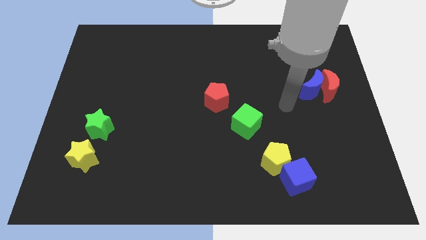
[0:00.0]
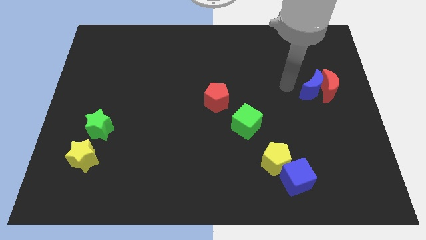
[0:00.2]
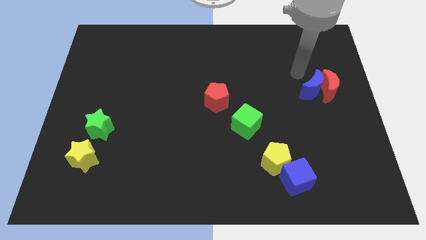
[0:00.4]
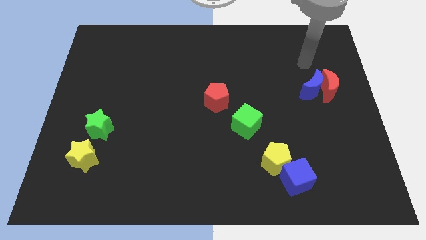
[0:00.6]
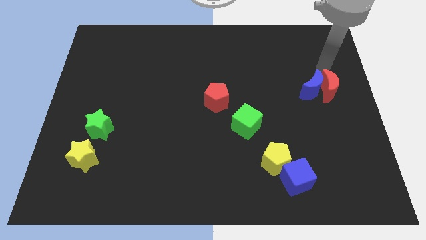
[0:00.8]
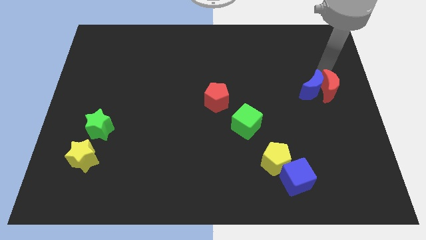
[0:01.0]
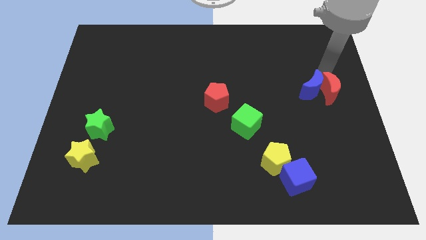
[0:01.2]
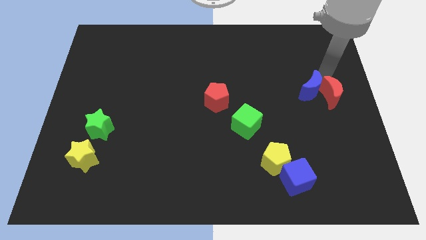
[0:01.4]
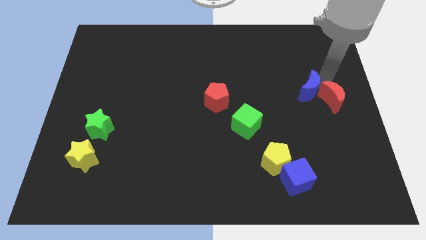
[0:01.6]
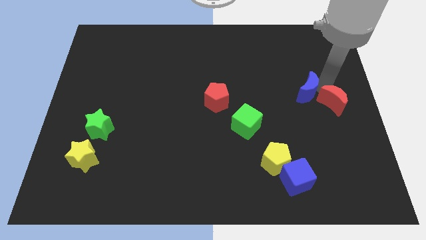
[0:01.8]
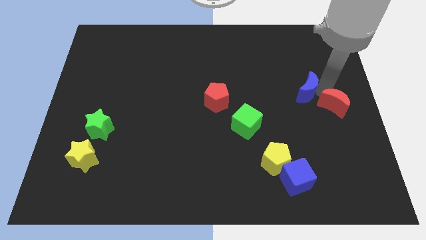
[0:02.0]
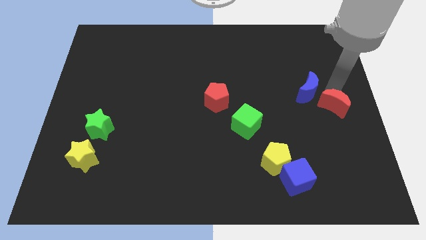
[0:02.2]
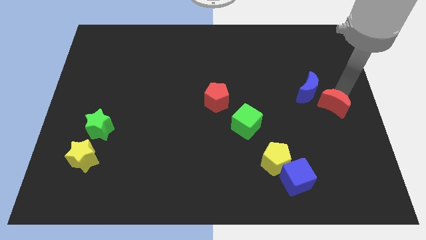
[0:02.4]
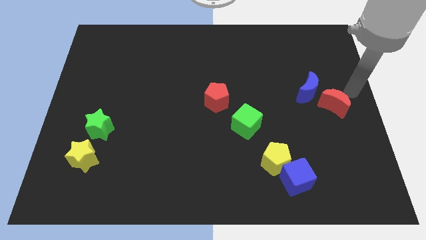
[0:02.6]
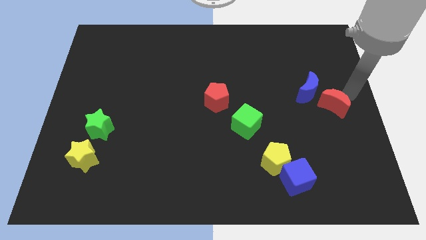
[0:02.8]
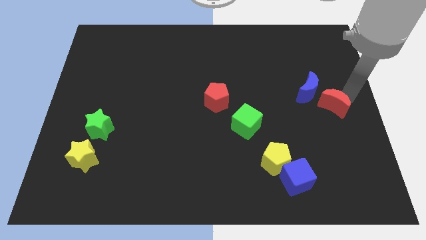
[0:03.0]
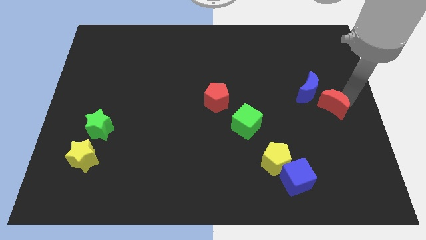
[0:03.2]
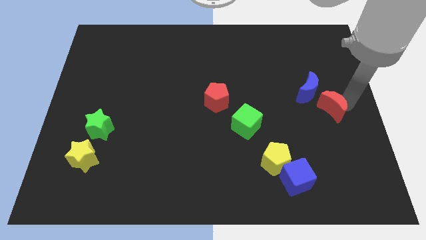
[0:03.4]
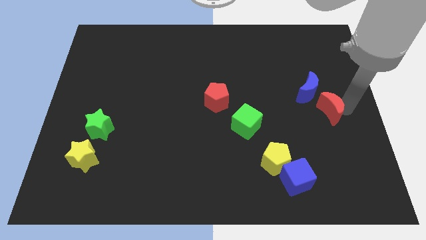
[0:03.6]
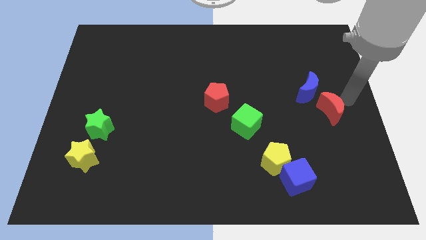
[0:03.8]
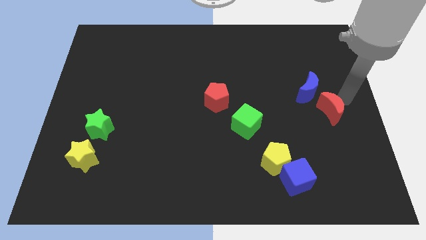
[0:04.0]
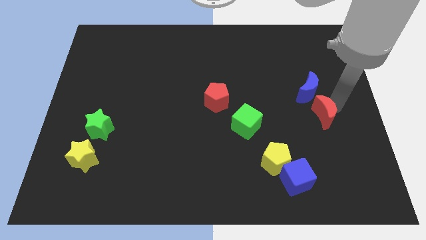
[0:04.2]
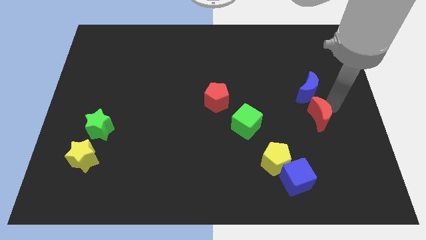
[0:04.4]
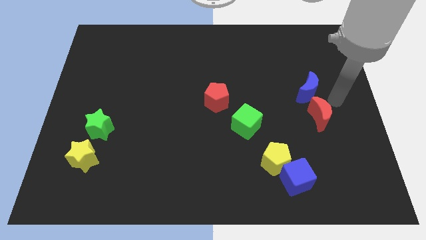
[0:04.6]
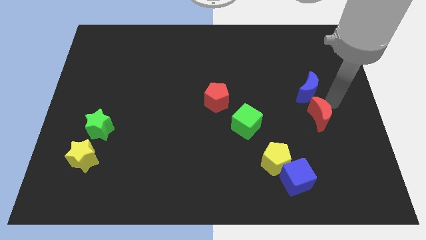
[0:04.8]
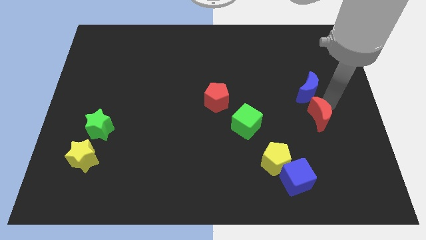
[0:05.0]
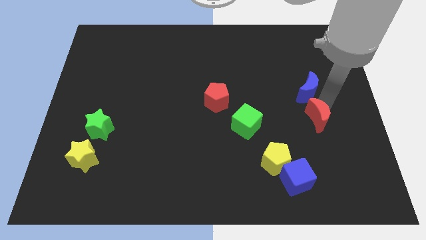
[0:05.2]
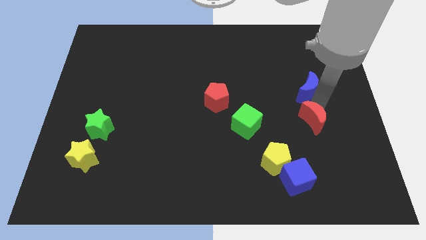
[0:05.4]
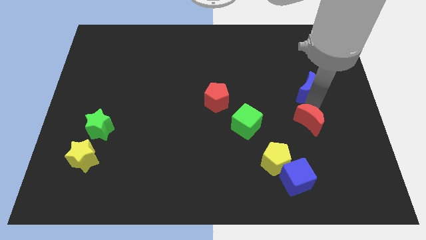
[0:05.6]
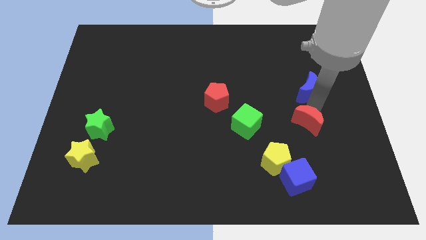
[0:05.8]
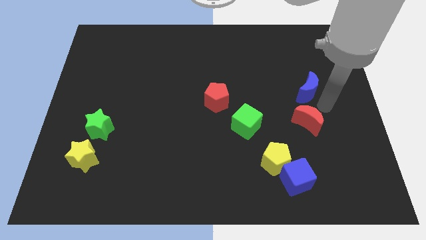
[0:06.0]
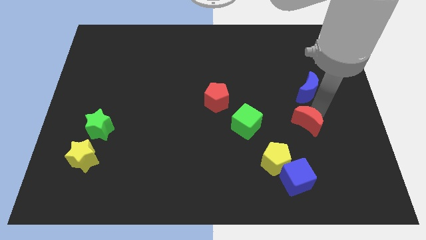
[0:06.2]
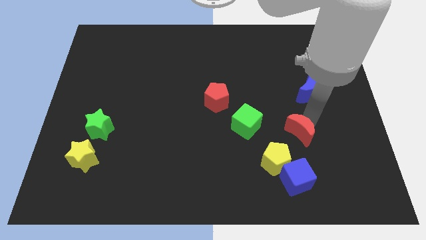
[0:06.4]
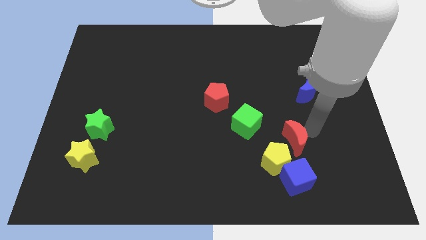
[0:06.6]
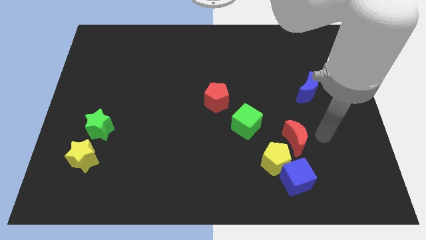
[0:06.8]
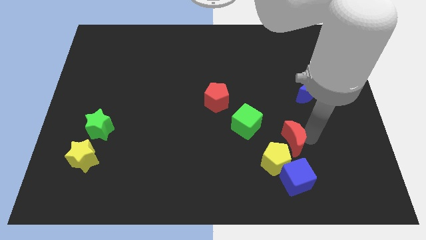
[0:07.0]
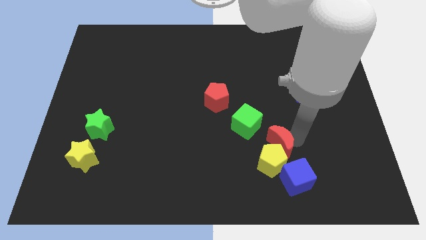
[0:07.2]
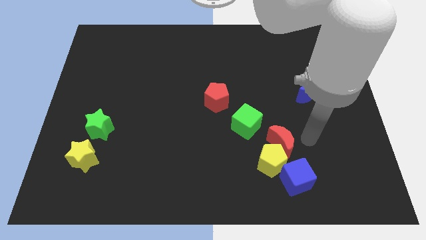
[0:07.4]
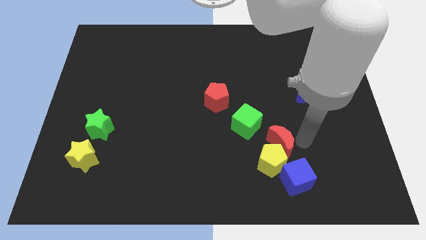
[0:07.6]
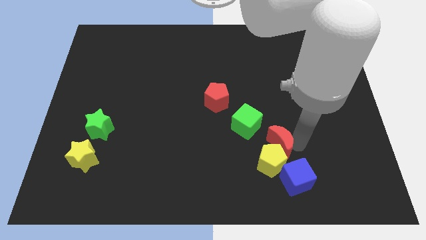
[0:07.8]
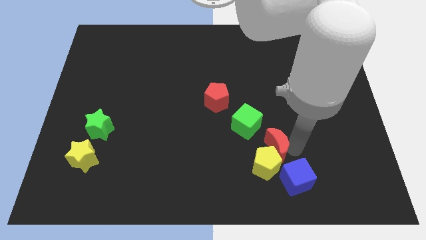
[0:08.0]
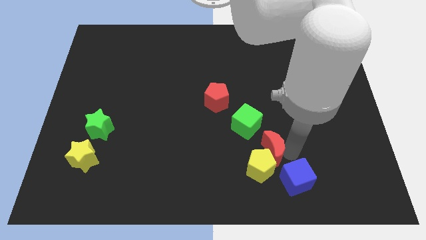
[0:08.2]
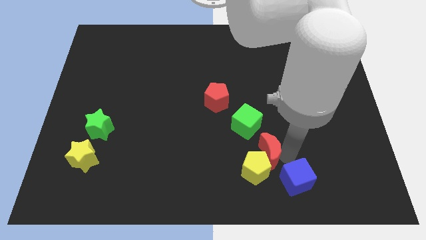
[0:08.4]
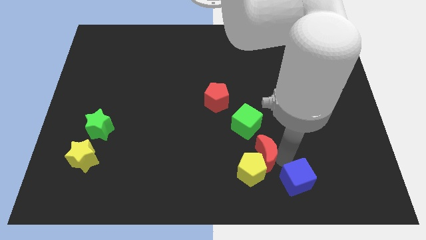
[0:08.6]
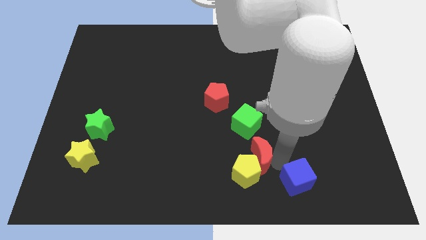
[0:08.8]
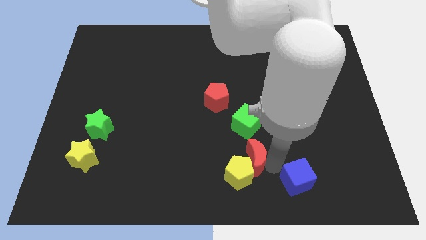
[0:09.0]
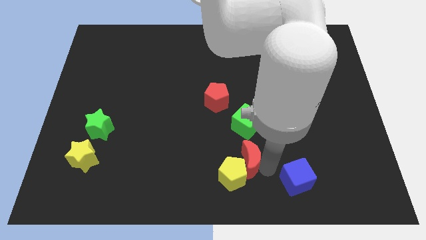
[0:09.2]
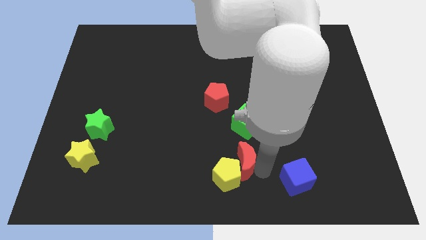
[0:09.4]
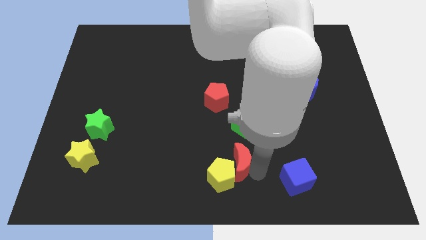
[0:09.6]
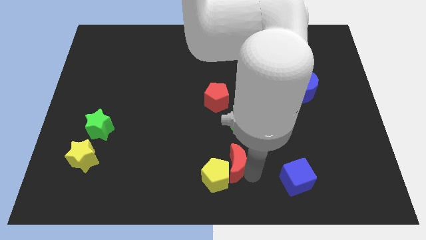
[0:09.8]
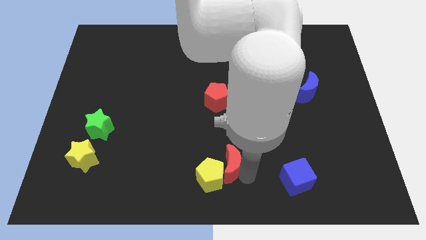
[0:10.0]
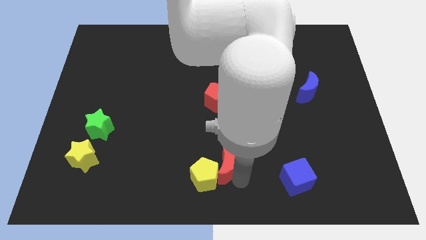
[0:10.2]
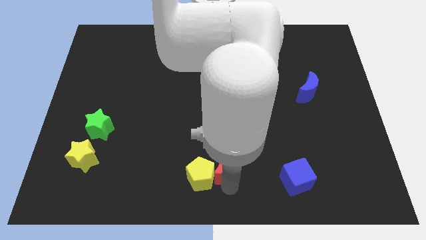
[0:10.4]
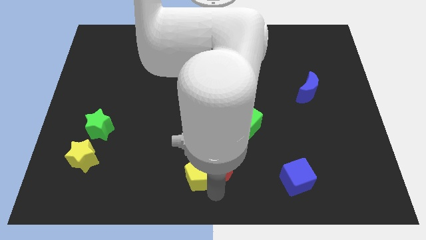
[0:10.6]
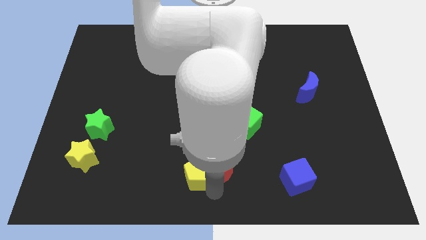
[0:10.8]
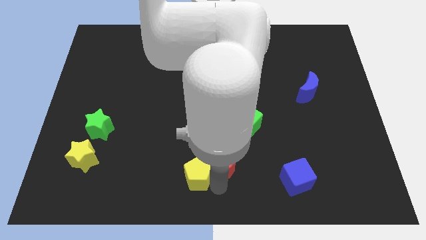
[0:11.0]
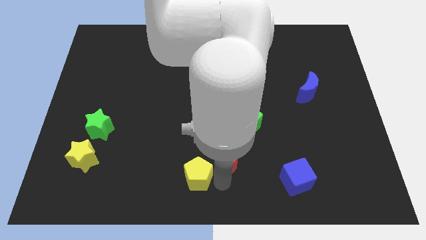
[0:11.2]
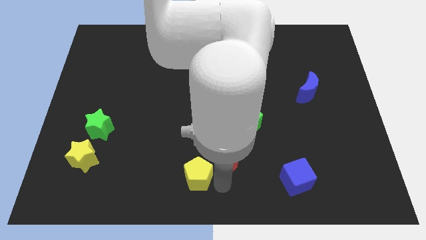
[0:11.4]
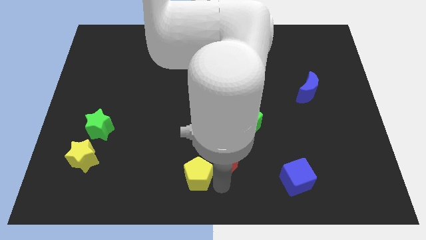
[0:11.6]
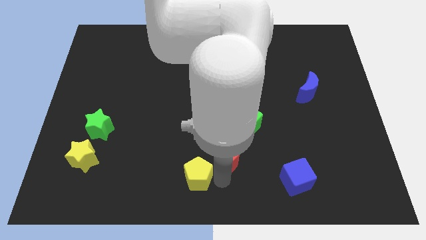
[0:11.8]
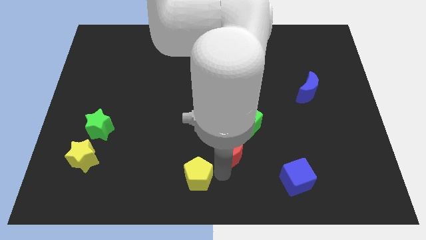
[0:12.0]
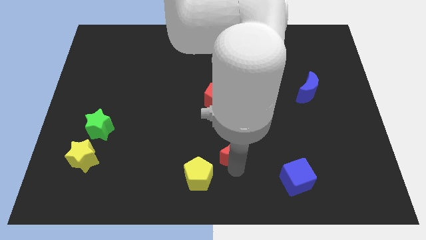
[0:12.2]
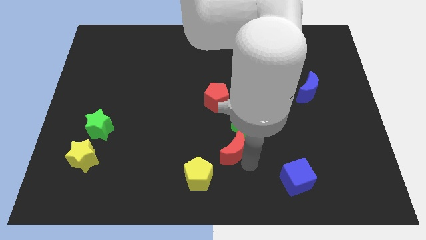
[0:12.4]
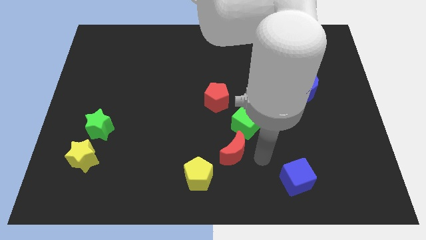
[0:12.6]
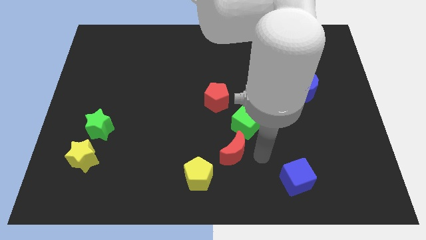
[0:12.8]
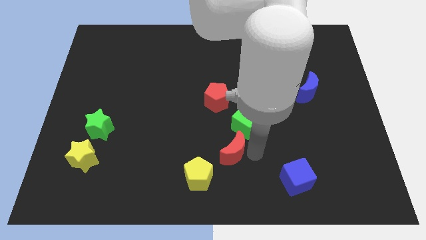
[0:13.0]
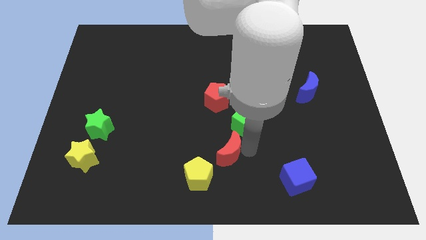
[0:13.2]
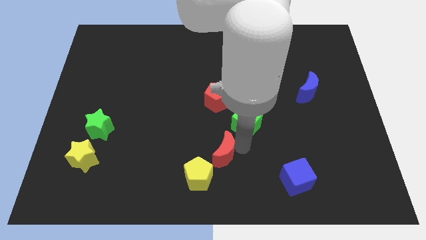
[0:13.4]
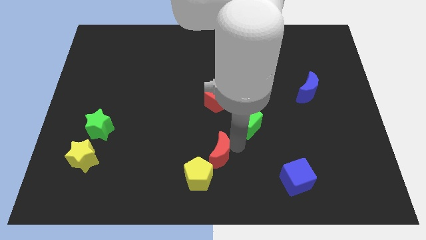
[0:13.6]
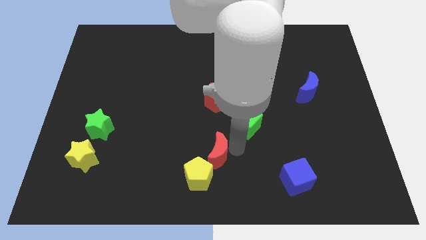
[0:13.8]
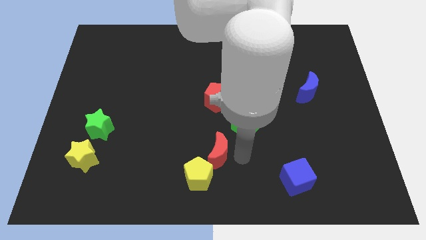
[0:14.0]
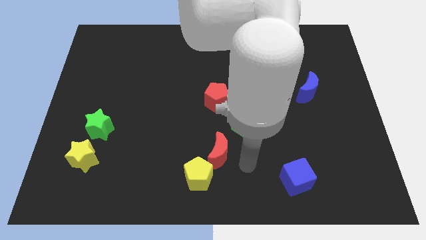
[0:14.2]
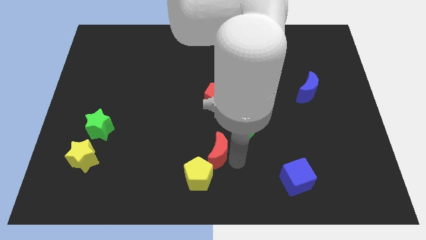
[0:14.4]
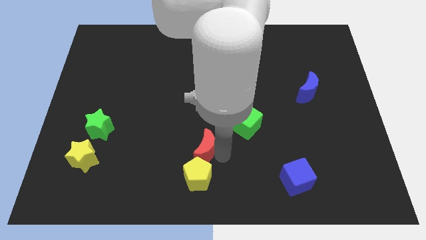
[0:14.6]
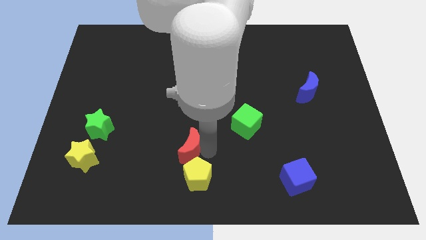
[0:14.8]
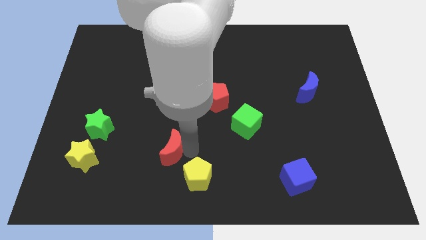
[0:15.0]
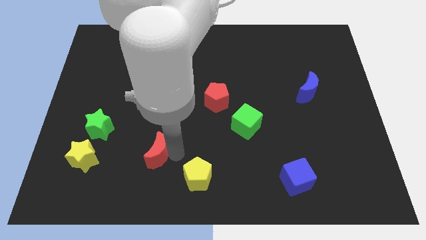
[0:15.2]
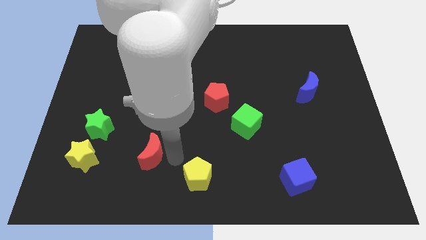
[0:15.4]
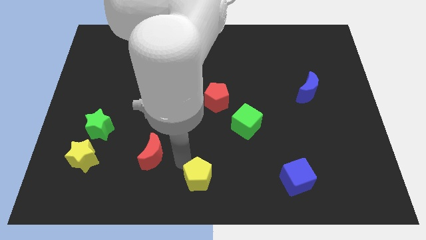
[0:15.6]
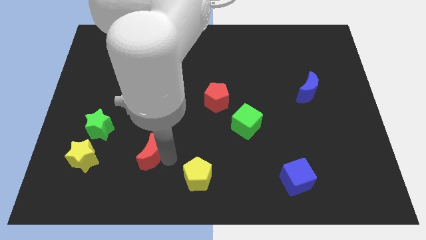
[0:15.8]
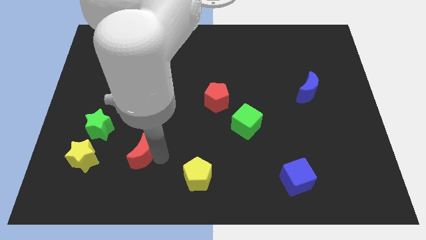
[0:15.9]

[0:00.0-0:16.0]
push the red moon to the bottom right of the green star

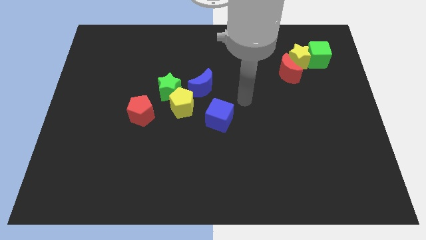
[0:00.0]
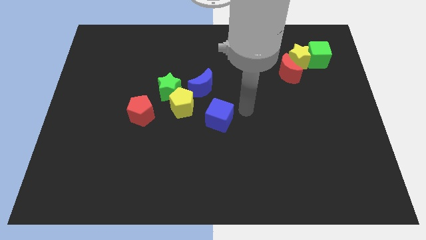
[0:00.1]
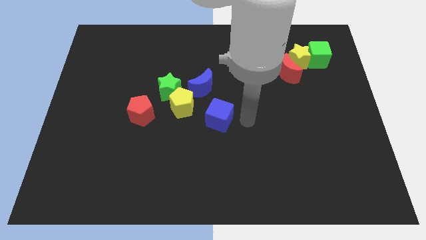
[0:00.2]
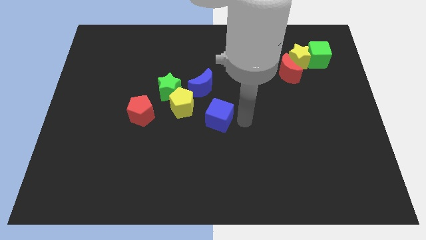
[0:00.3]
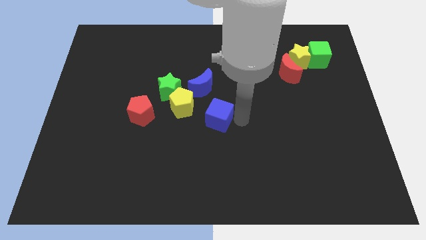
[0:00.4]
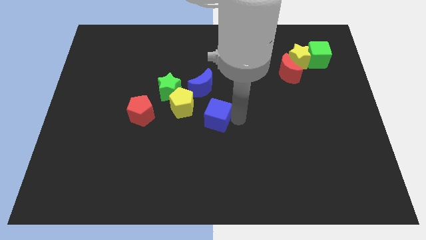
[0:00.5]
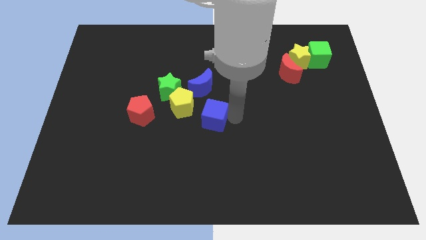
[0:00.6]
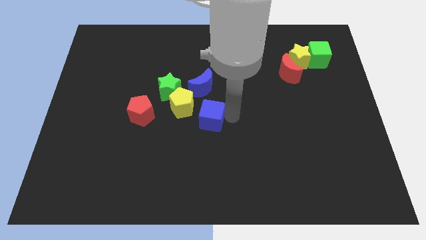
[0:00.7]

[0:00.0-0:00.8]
move the blue cube to the right side of the red pentagon
